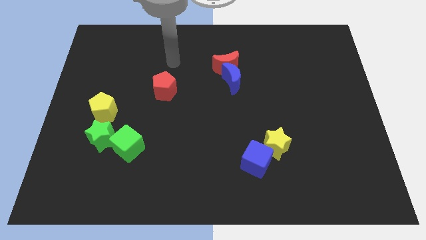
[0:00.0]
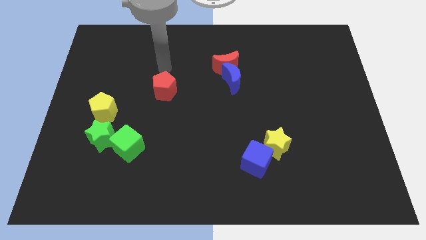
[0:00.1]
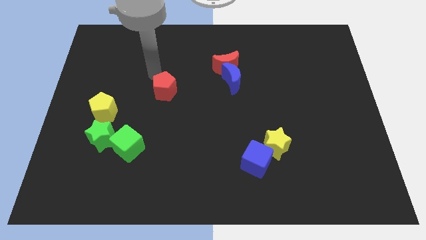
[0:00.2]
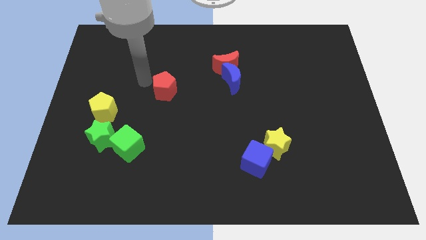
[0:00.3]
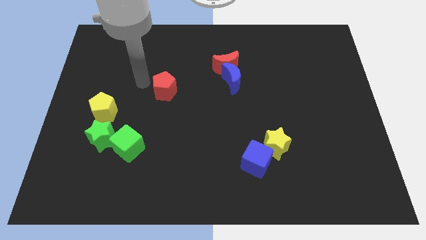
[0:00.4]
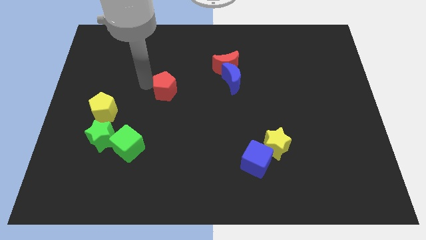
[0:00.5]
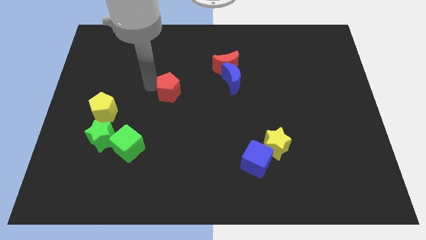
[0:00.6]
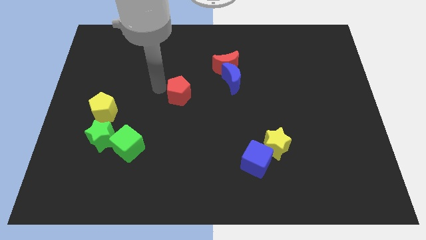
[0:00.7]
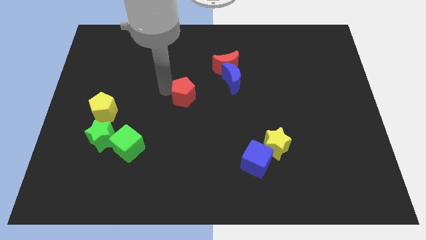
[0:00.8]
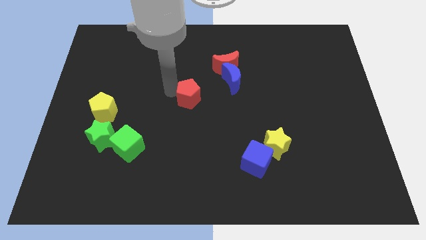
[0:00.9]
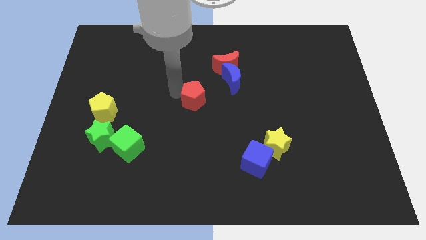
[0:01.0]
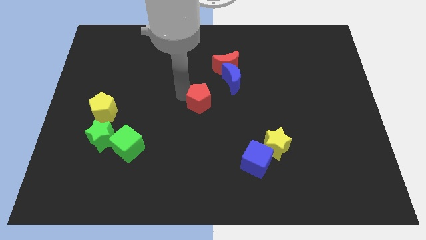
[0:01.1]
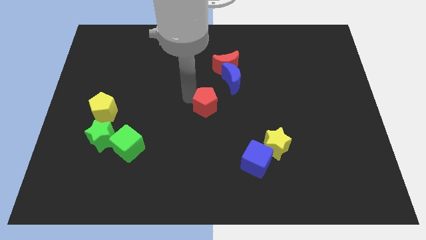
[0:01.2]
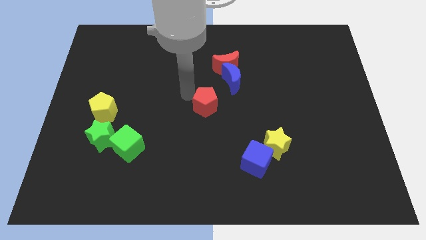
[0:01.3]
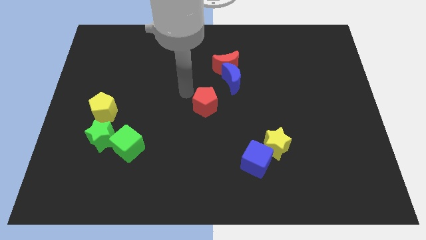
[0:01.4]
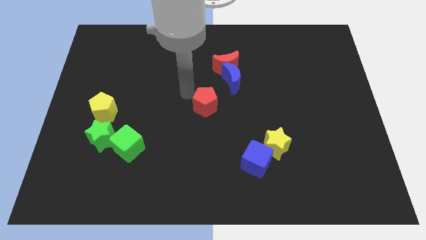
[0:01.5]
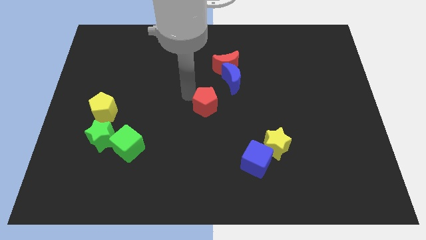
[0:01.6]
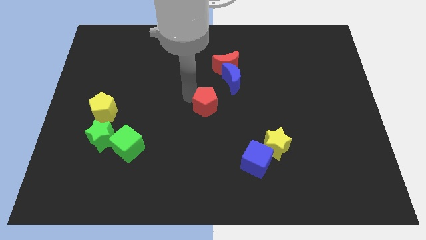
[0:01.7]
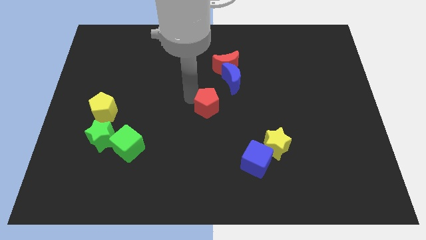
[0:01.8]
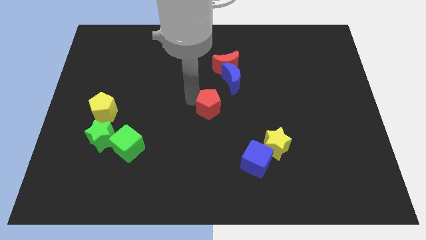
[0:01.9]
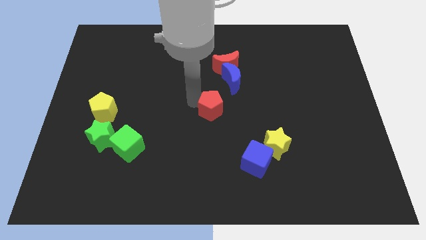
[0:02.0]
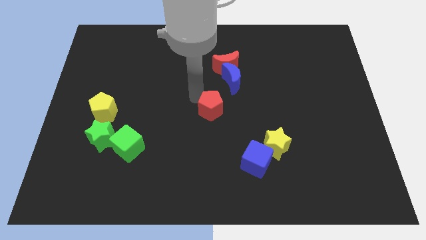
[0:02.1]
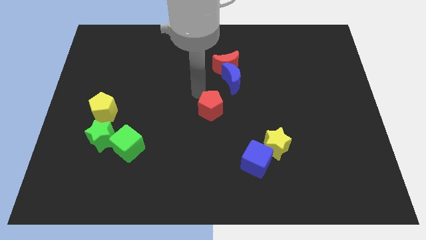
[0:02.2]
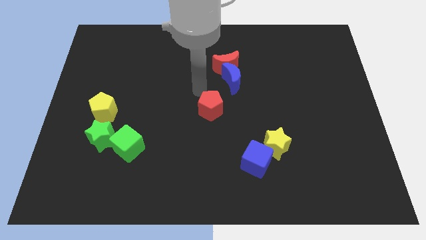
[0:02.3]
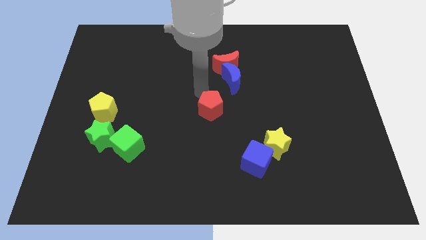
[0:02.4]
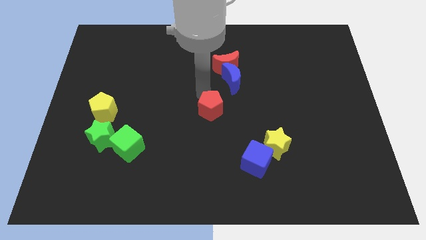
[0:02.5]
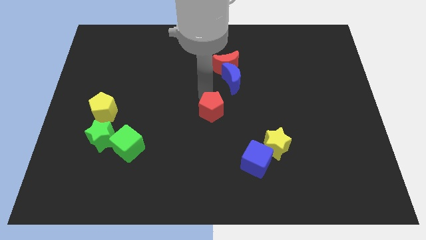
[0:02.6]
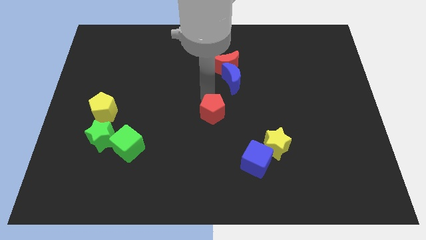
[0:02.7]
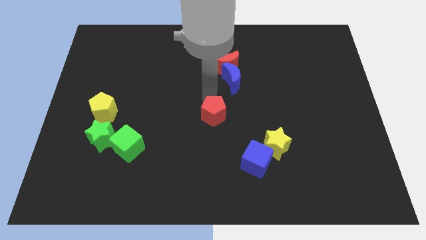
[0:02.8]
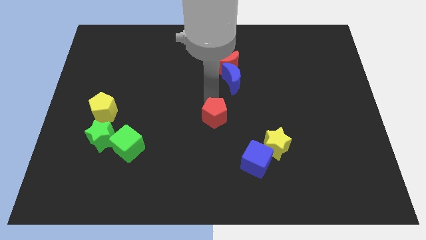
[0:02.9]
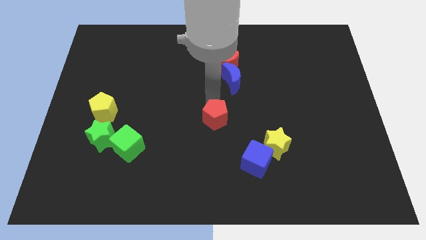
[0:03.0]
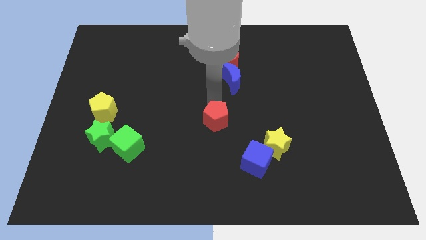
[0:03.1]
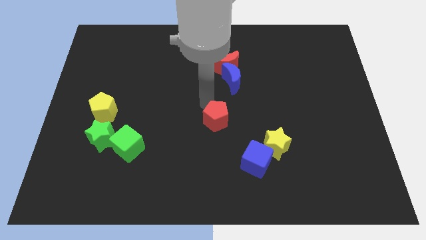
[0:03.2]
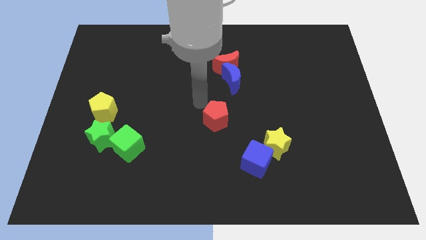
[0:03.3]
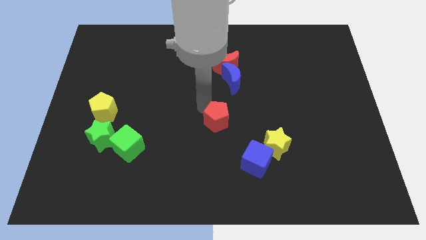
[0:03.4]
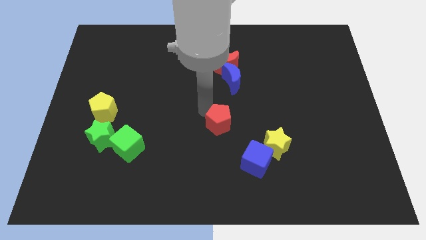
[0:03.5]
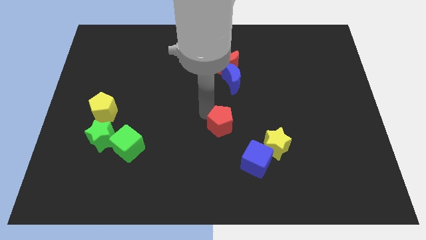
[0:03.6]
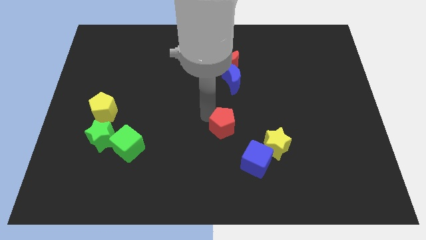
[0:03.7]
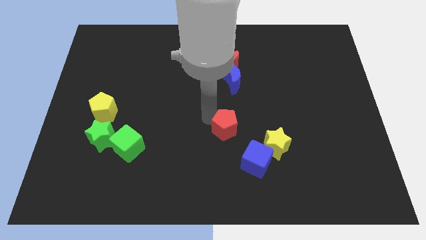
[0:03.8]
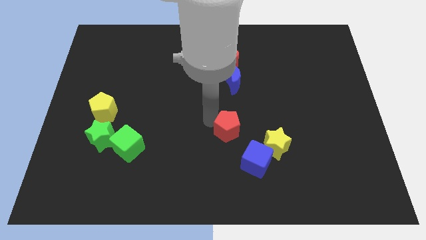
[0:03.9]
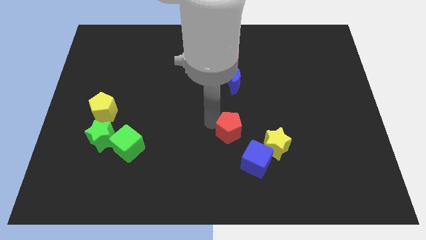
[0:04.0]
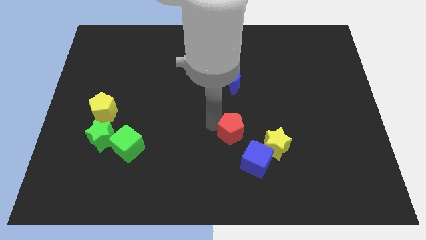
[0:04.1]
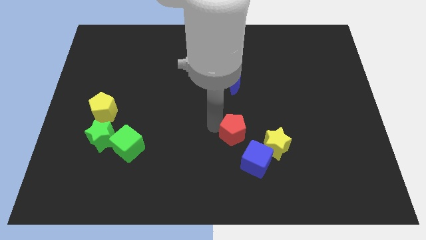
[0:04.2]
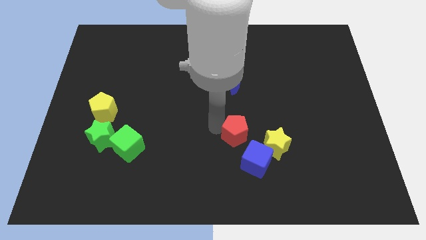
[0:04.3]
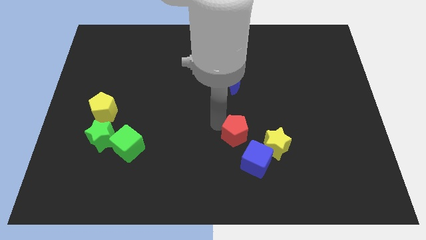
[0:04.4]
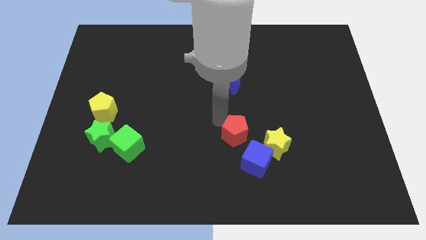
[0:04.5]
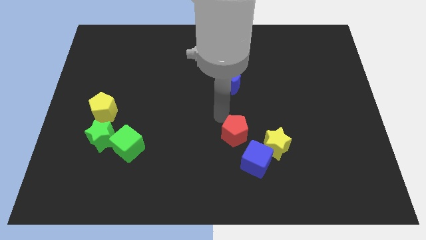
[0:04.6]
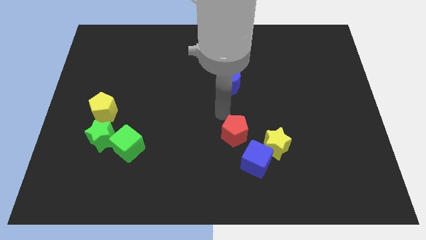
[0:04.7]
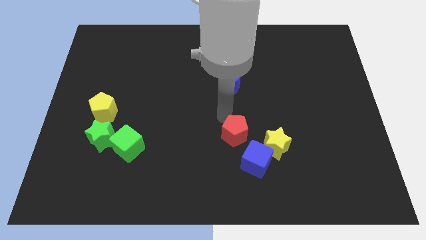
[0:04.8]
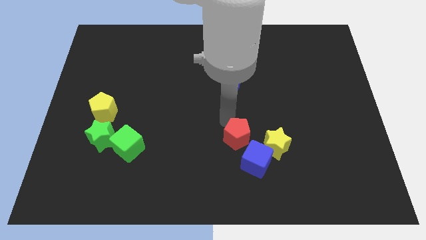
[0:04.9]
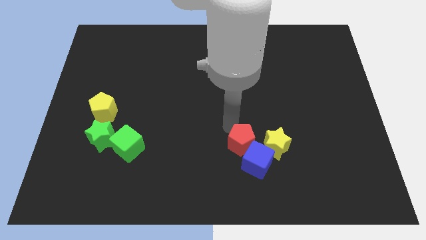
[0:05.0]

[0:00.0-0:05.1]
push the red pentagon towards the blue cube

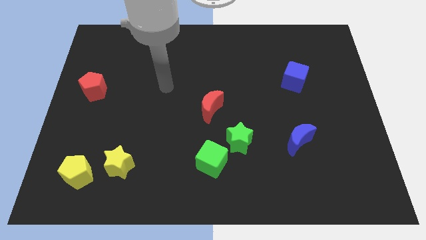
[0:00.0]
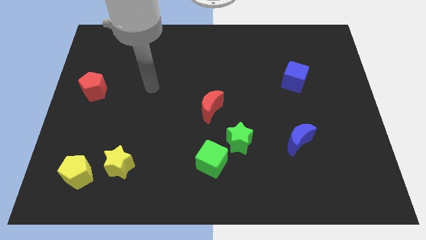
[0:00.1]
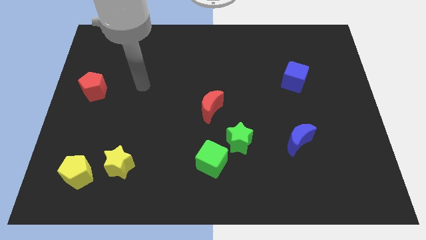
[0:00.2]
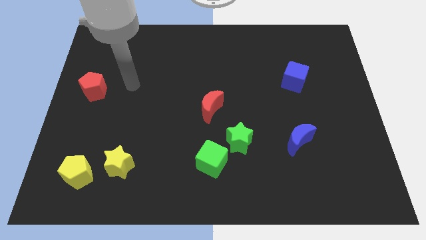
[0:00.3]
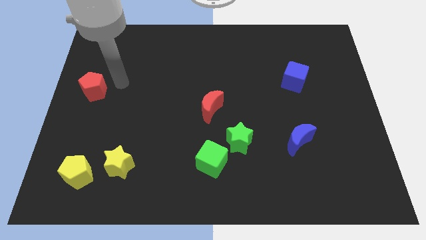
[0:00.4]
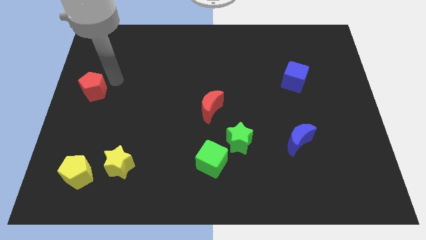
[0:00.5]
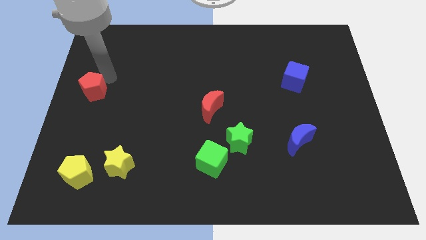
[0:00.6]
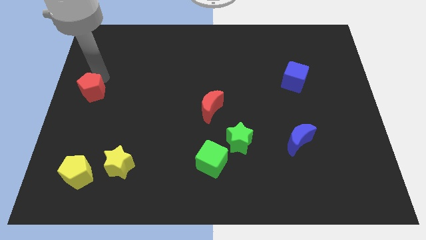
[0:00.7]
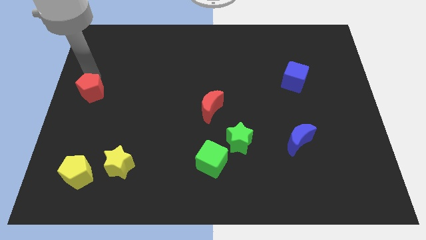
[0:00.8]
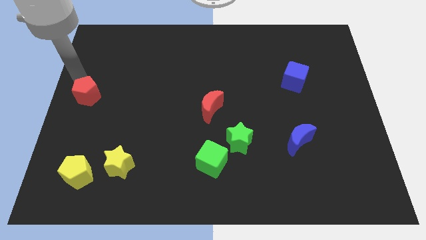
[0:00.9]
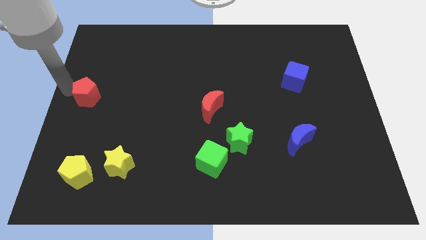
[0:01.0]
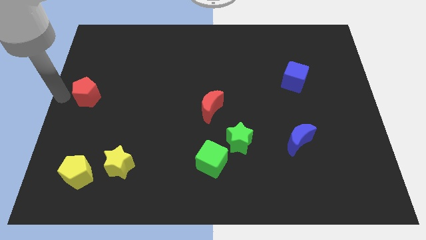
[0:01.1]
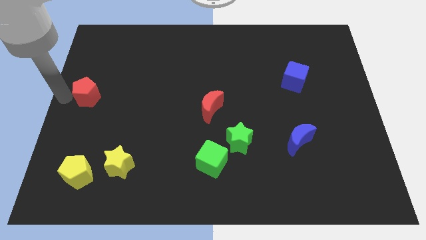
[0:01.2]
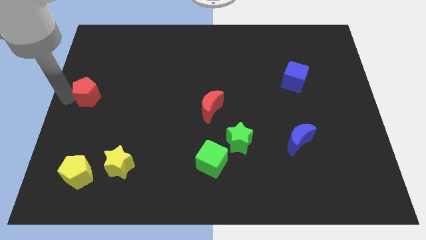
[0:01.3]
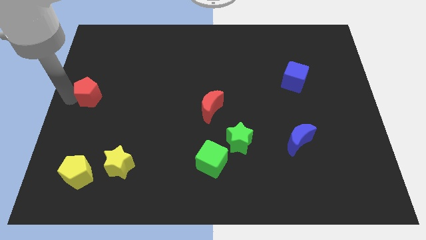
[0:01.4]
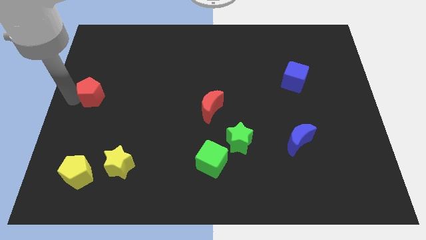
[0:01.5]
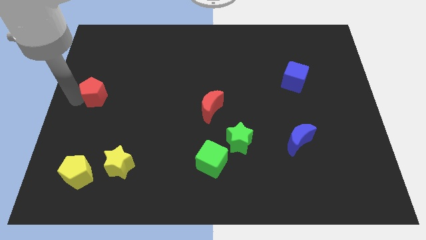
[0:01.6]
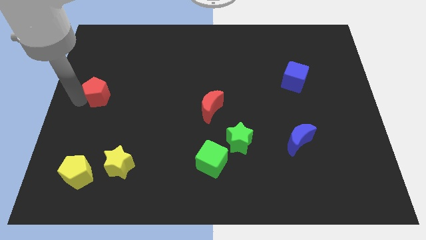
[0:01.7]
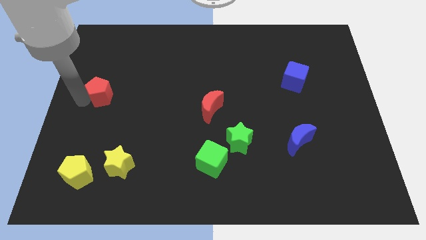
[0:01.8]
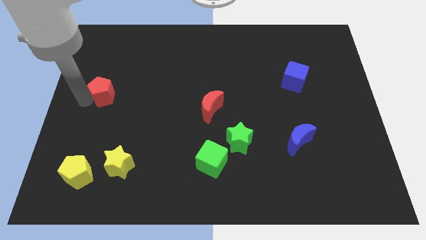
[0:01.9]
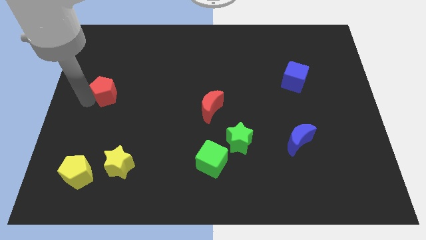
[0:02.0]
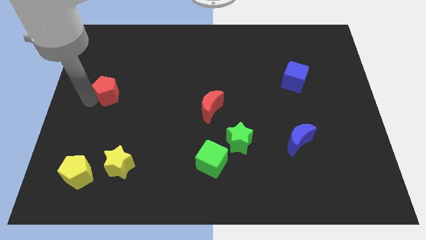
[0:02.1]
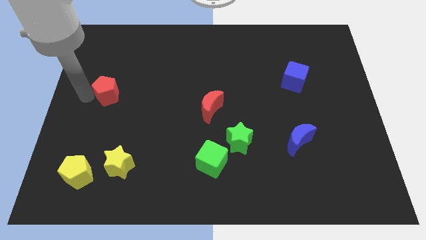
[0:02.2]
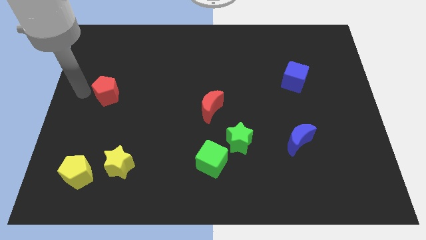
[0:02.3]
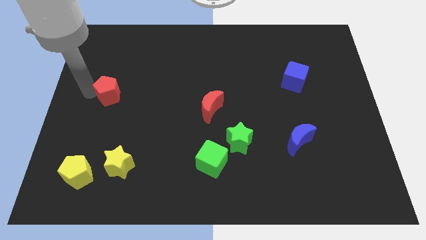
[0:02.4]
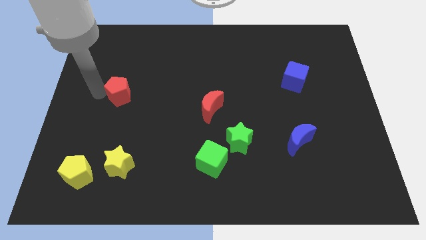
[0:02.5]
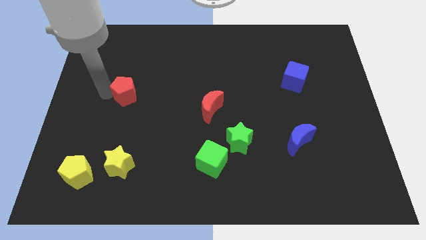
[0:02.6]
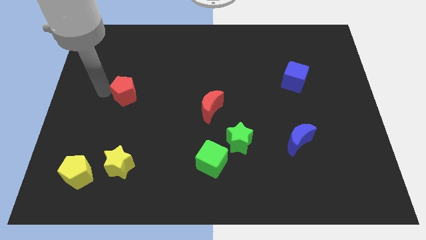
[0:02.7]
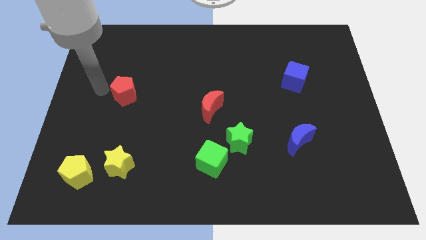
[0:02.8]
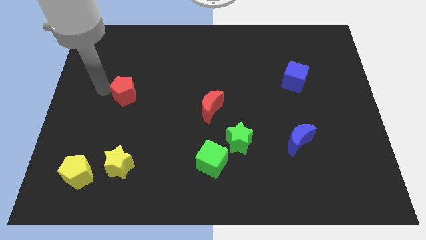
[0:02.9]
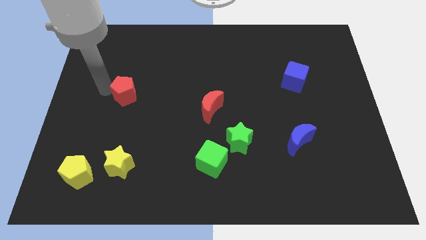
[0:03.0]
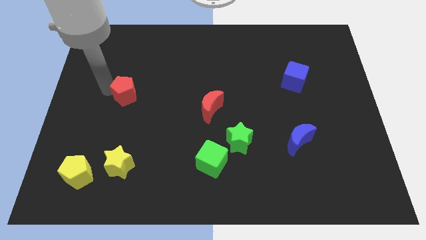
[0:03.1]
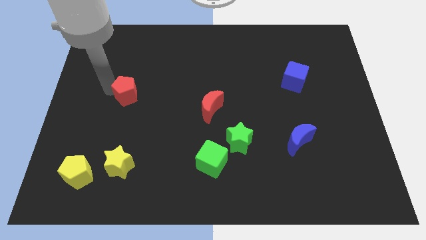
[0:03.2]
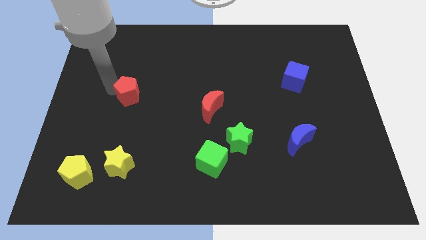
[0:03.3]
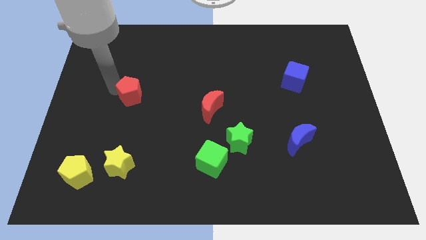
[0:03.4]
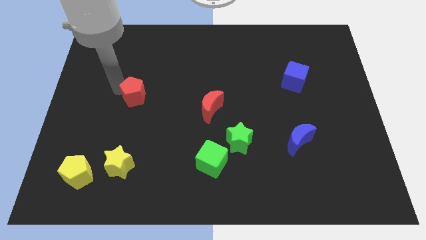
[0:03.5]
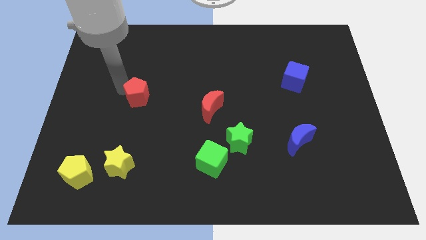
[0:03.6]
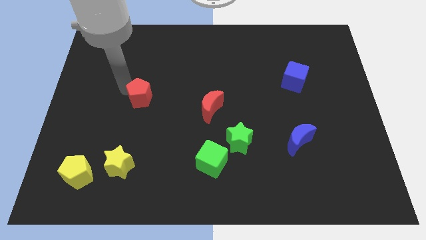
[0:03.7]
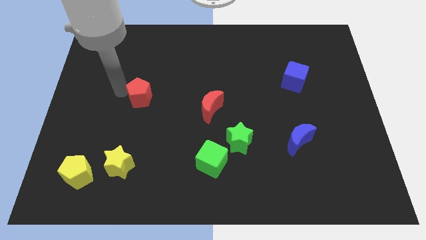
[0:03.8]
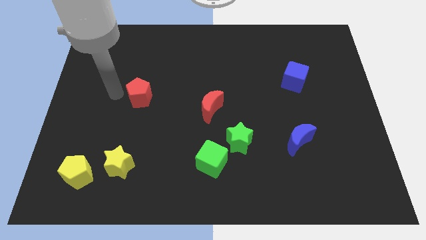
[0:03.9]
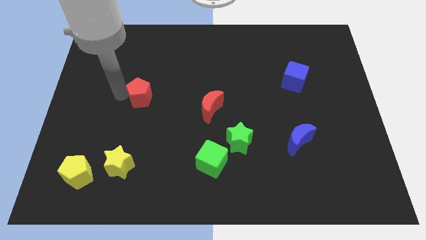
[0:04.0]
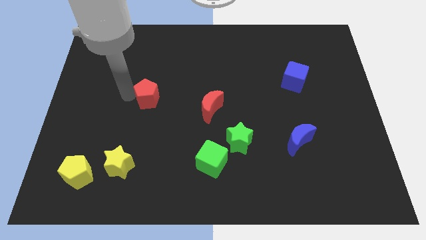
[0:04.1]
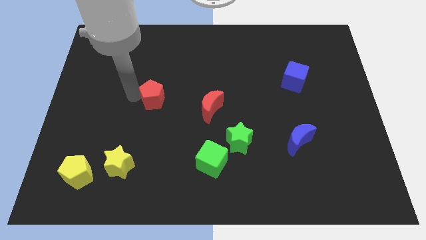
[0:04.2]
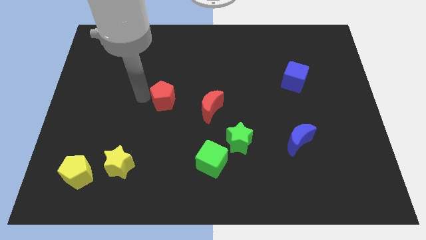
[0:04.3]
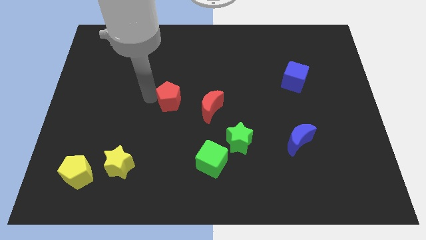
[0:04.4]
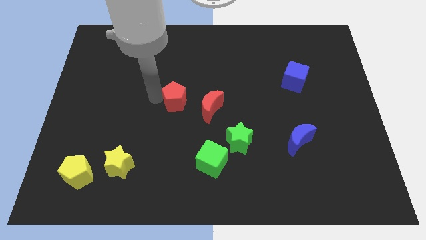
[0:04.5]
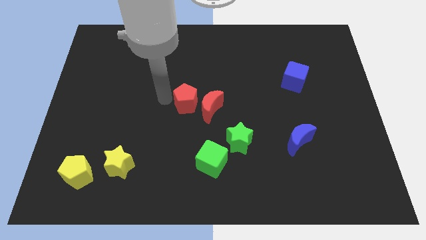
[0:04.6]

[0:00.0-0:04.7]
put the red pentagon towards the red moon
